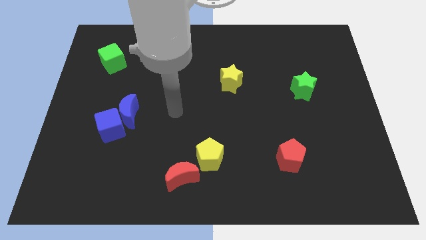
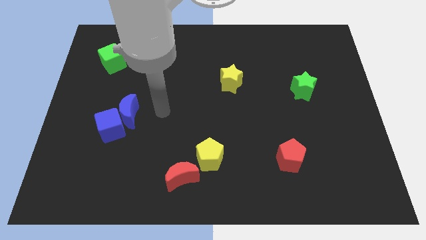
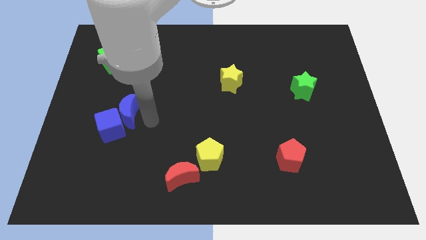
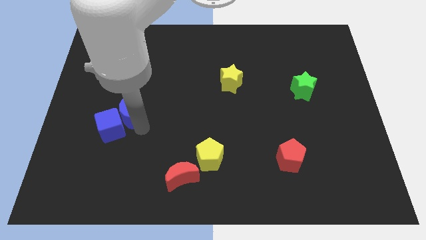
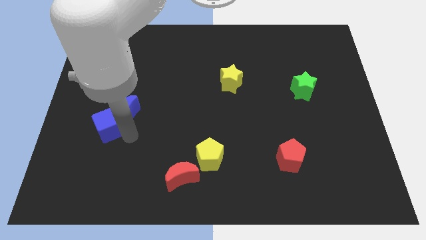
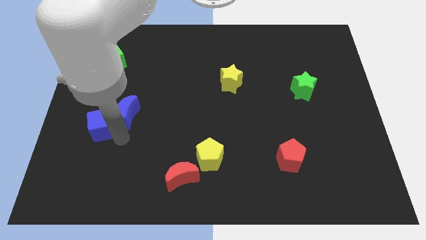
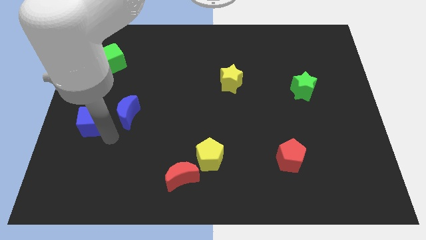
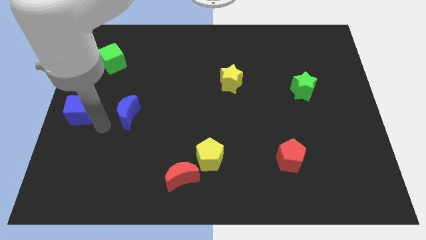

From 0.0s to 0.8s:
pull the blue moon apart from the blue cube

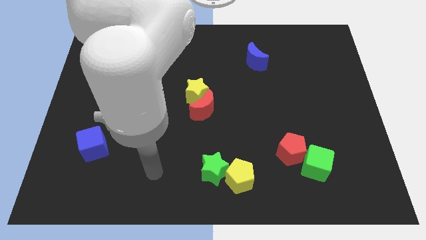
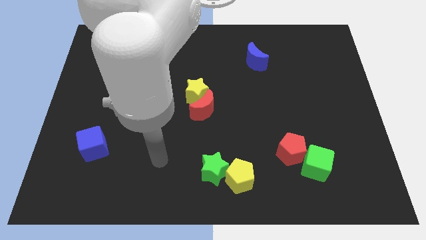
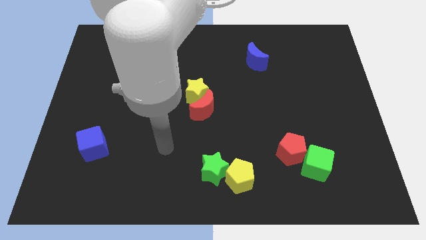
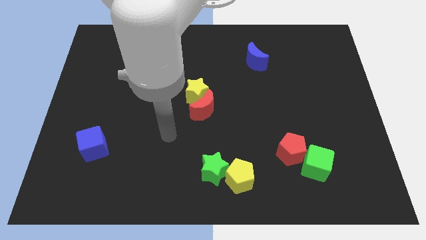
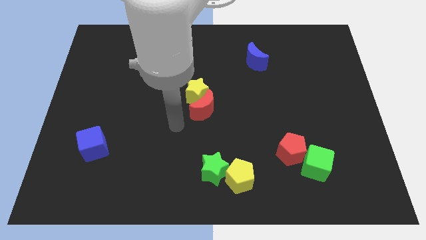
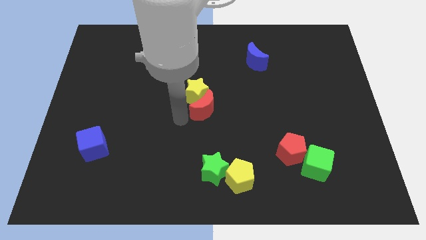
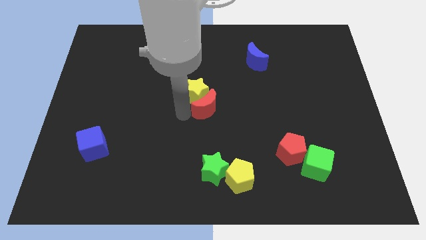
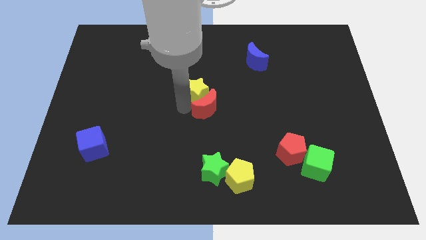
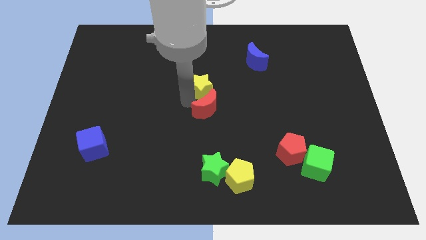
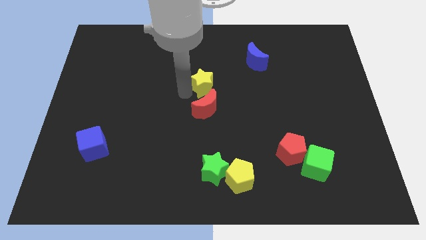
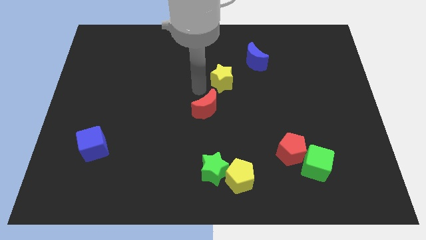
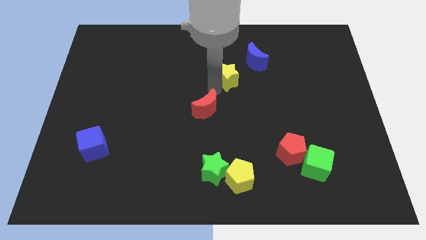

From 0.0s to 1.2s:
move the red moon away from the yellow star

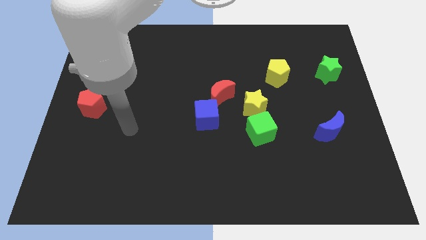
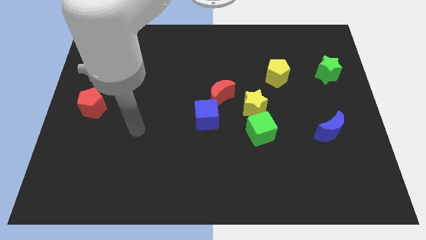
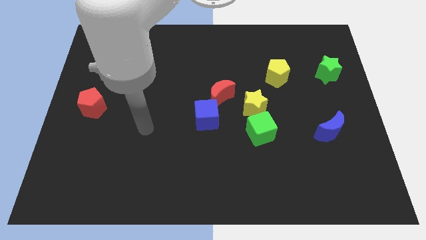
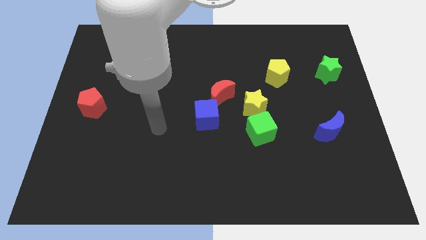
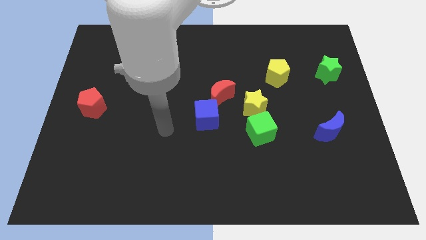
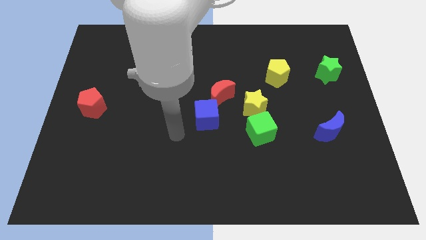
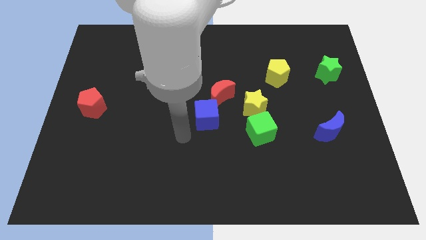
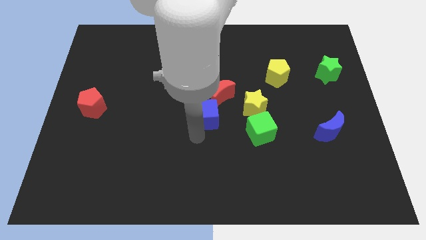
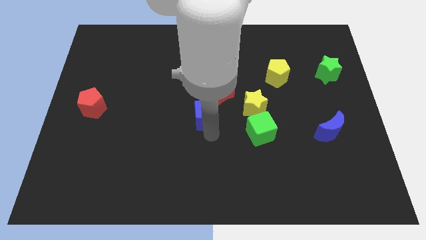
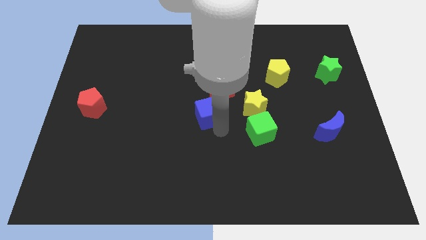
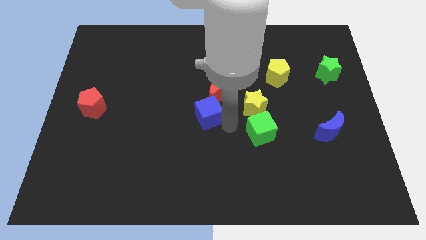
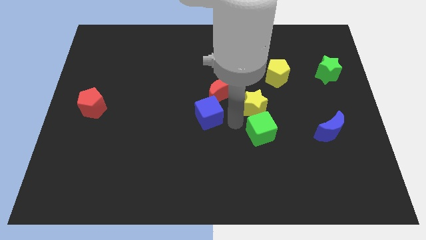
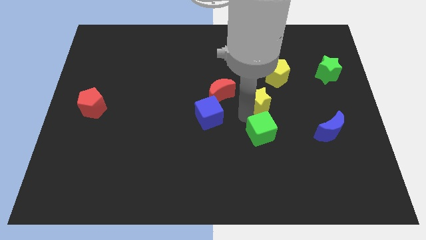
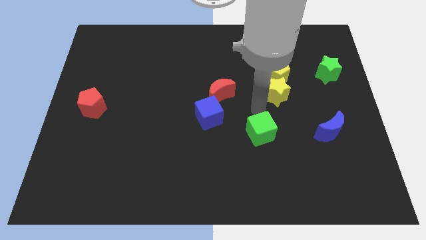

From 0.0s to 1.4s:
separate the green cube from the yellow star

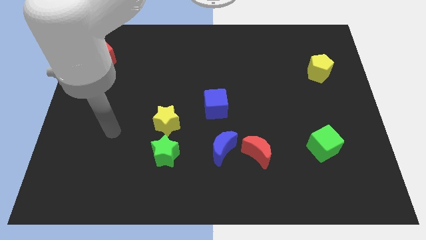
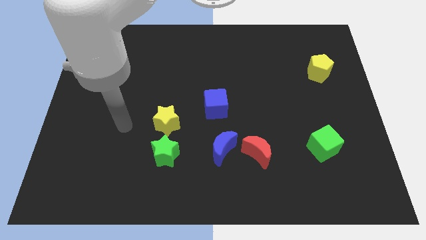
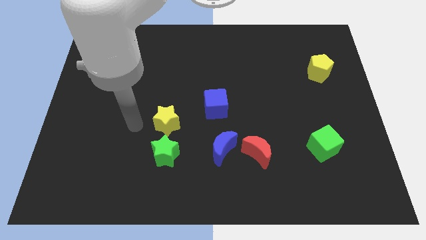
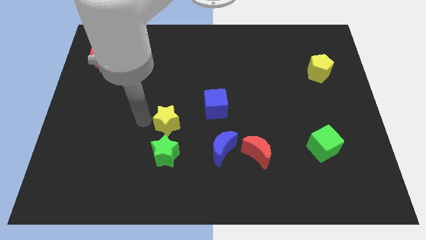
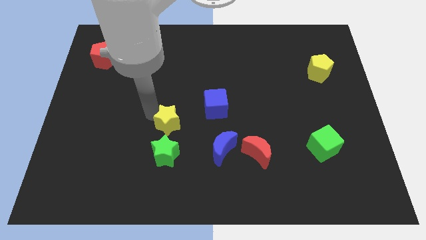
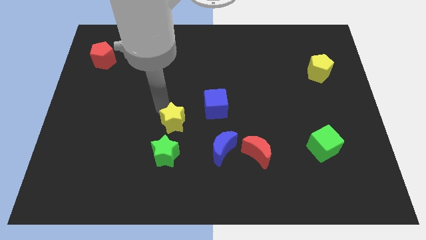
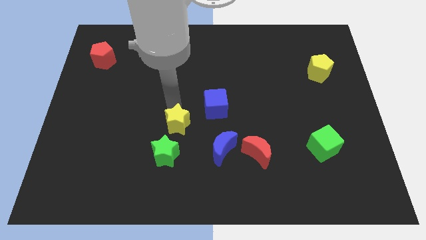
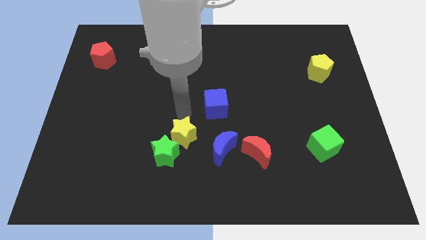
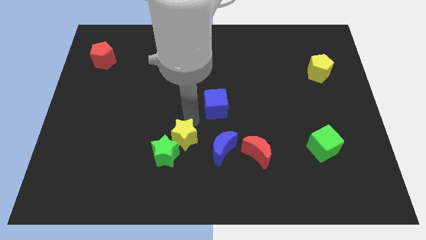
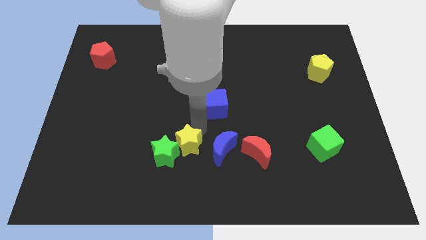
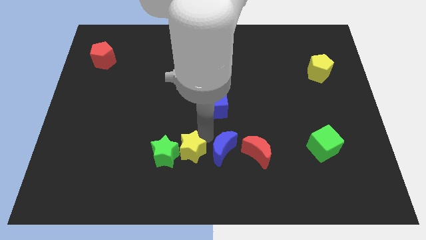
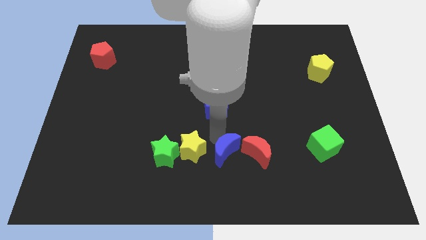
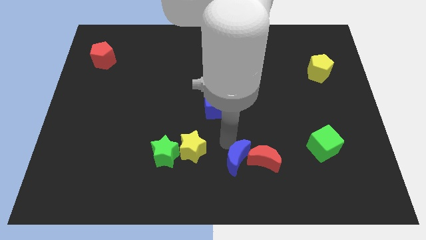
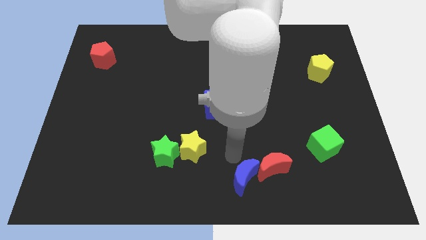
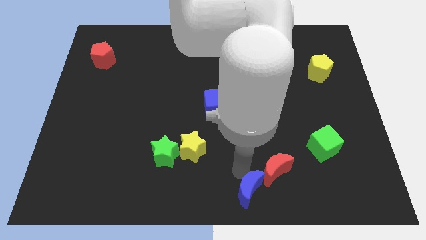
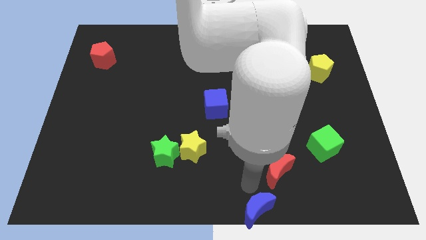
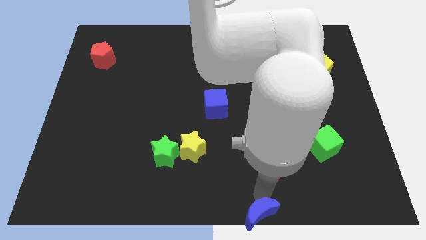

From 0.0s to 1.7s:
pull the red moon apart from the blue moon

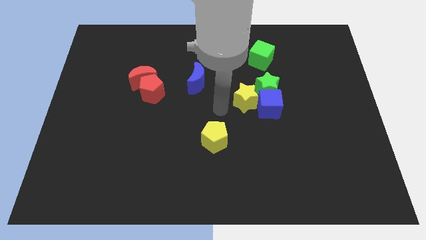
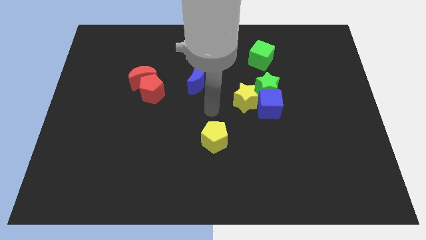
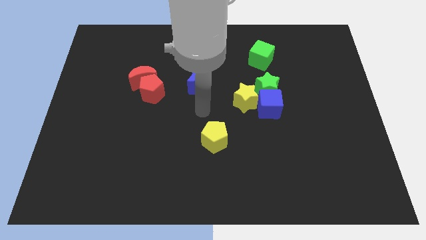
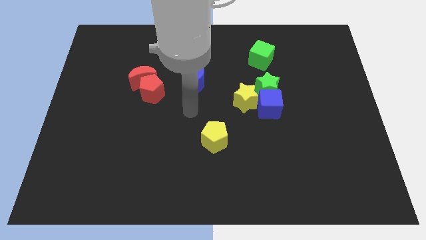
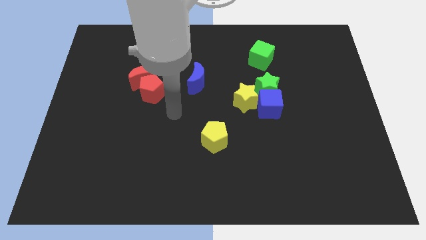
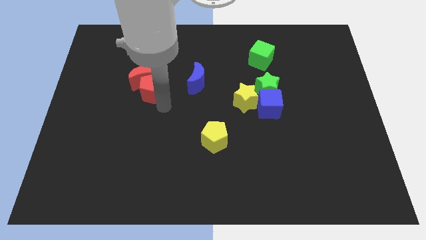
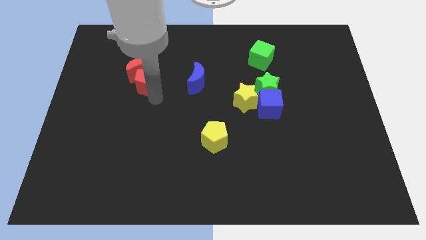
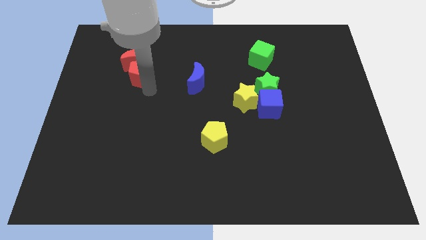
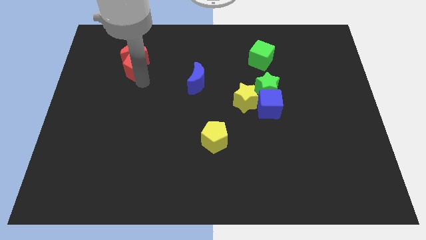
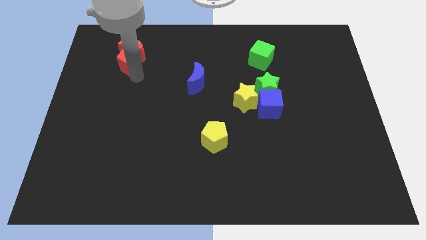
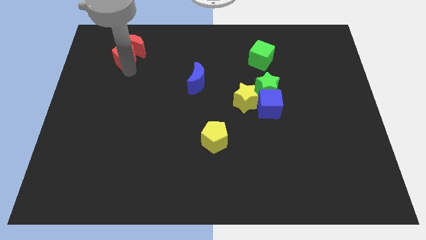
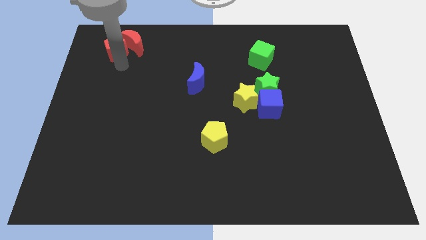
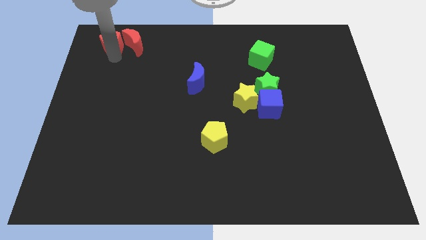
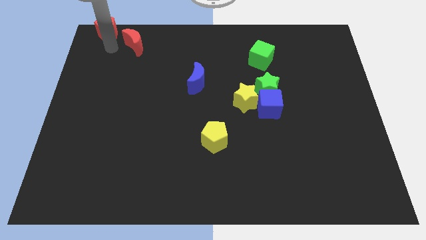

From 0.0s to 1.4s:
pull the red moon apart from the red pentagon

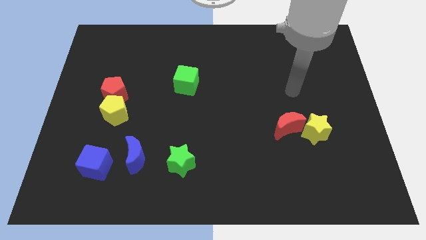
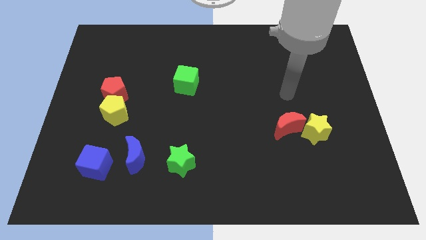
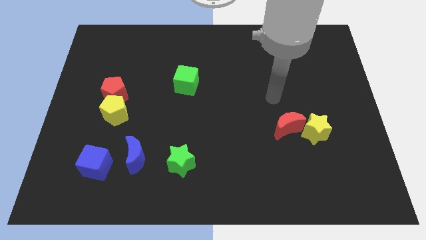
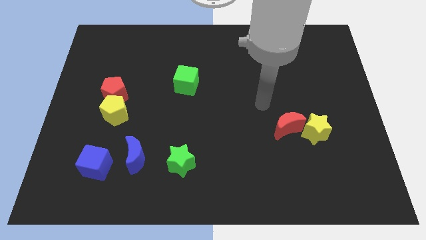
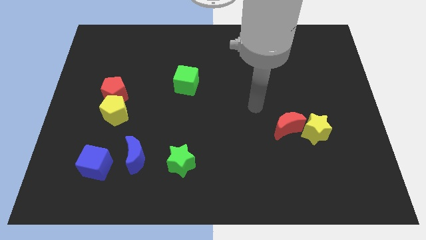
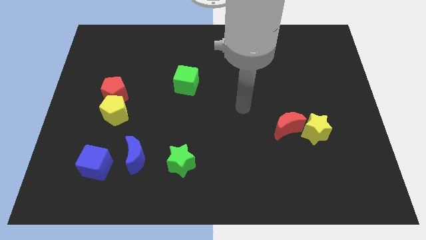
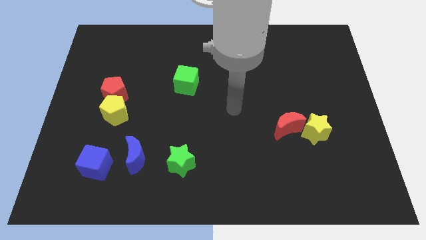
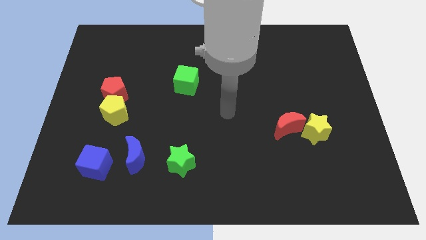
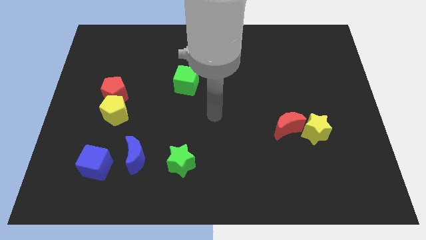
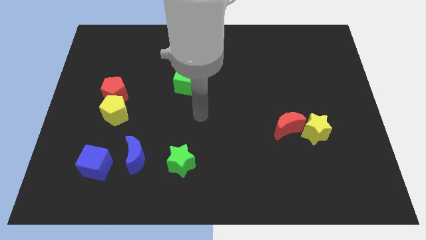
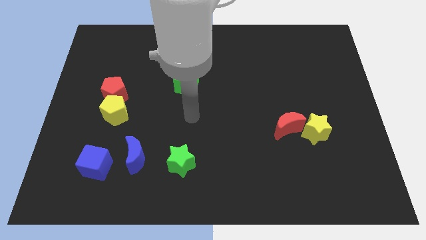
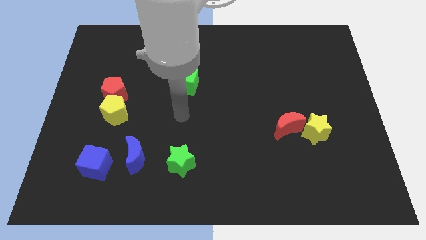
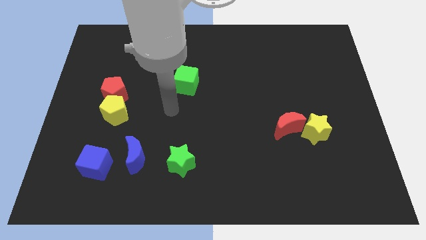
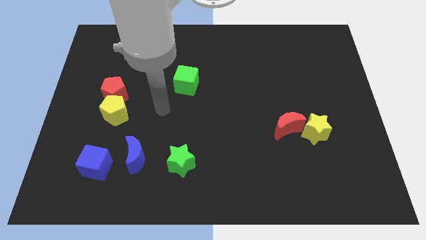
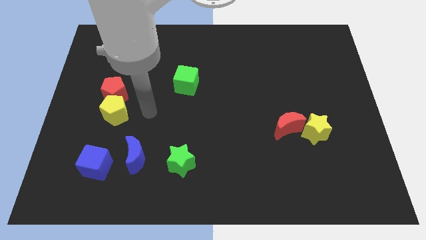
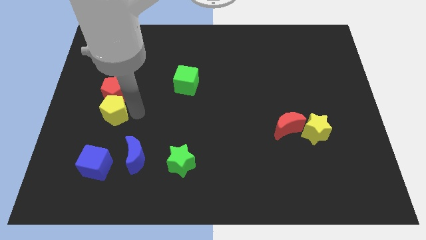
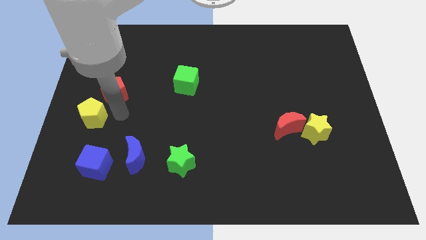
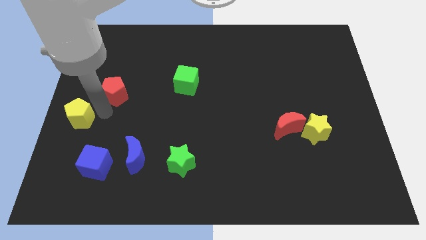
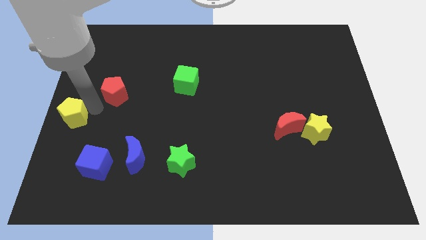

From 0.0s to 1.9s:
pull the red pentagon apart from the yellow pentagon

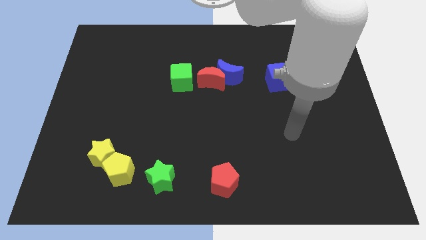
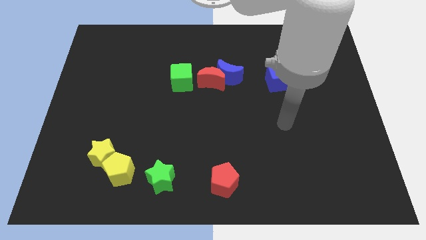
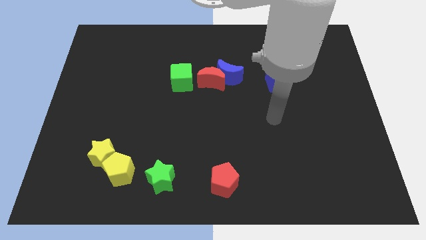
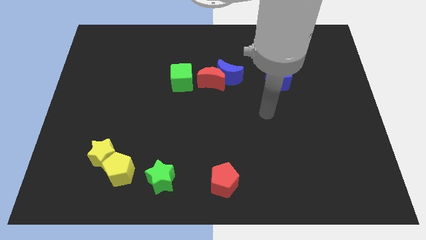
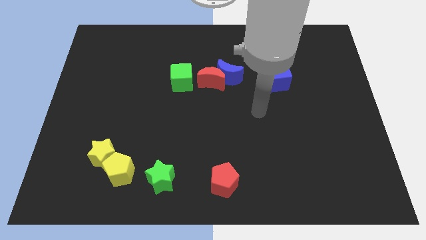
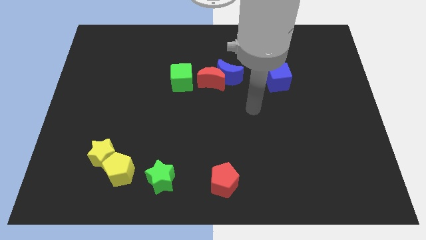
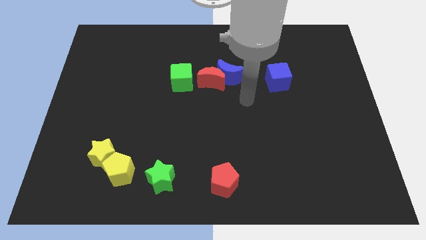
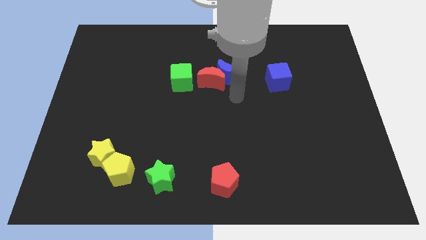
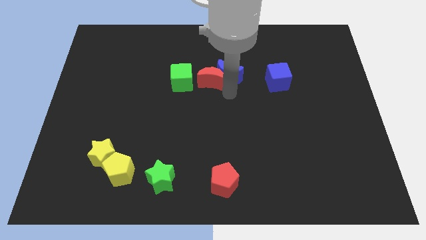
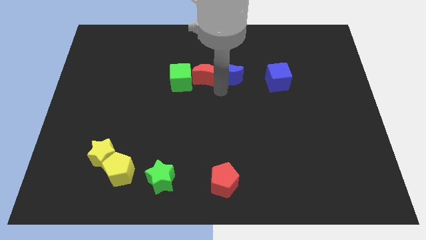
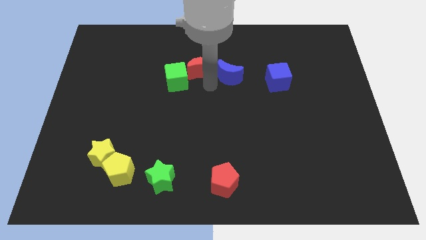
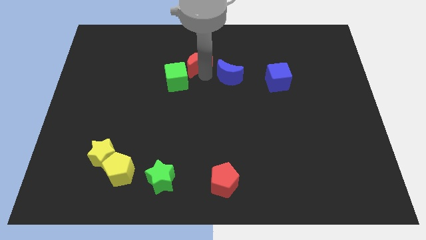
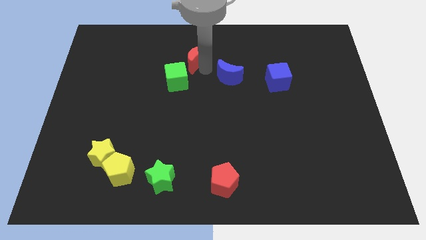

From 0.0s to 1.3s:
separate the blue moon from the red moon
